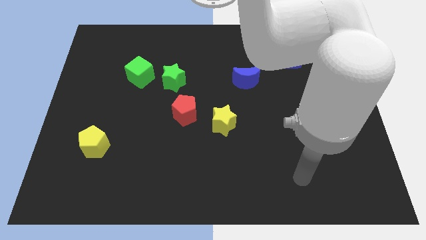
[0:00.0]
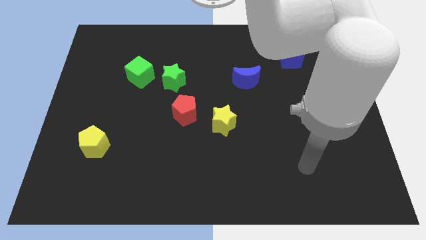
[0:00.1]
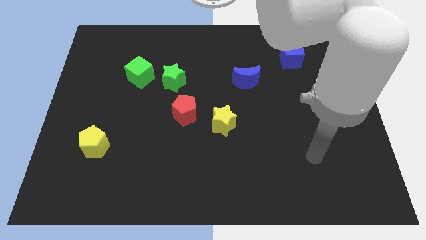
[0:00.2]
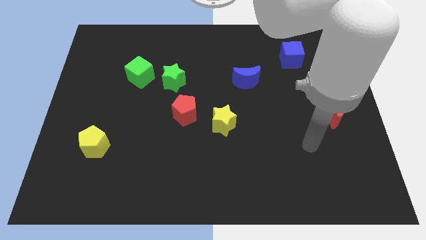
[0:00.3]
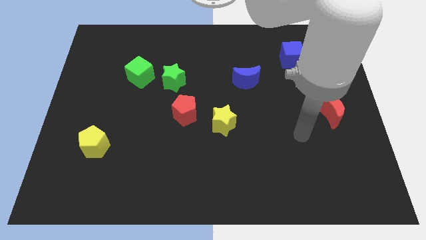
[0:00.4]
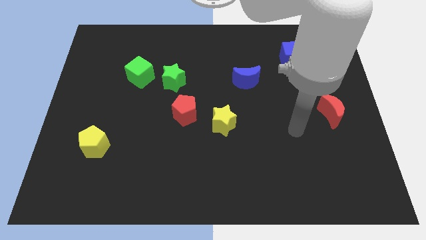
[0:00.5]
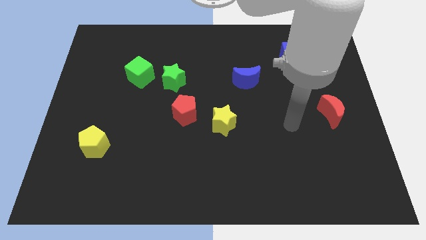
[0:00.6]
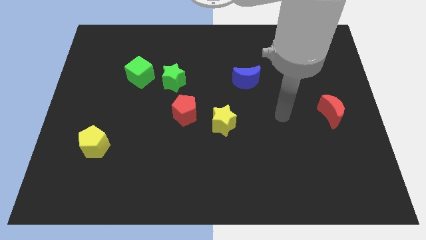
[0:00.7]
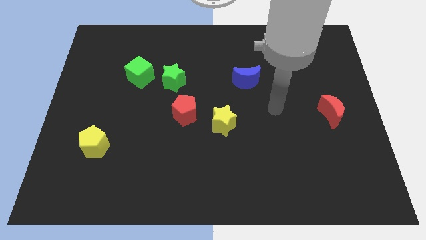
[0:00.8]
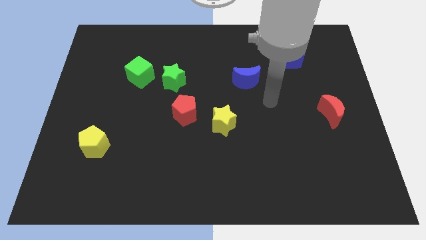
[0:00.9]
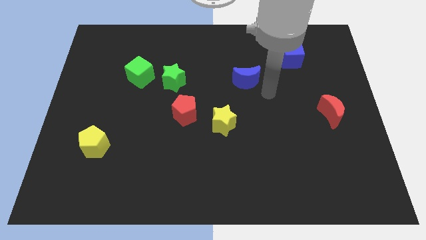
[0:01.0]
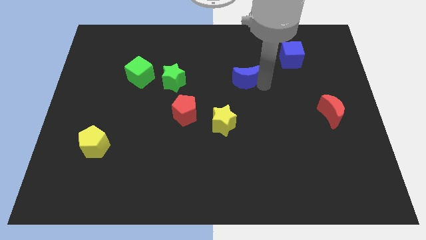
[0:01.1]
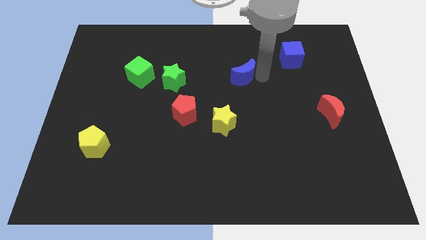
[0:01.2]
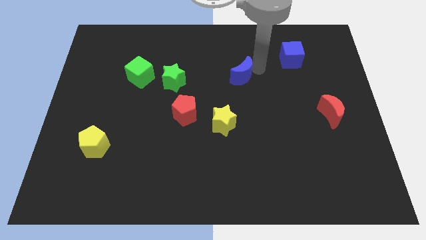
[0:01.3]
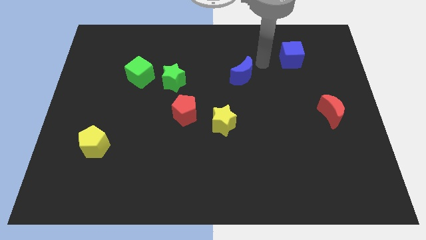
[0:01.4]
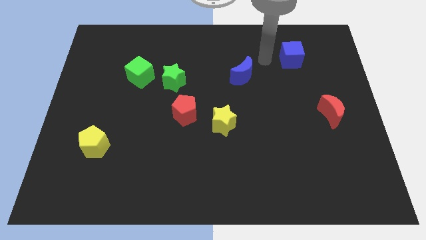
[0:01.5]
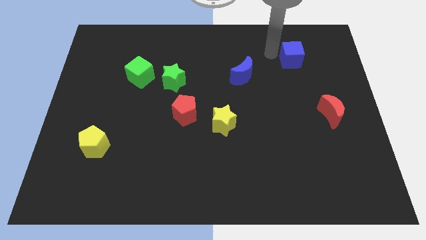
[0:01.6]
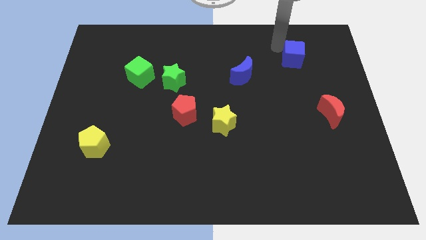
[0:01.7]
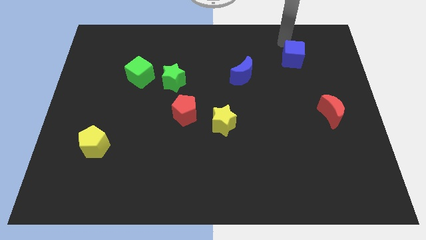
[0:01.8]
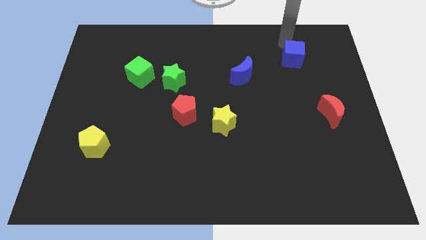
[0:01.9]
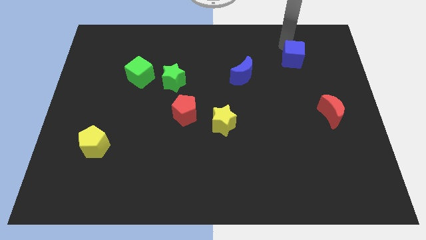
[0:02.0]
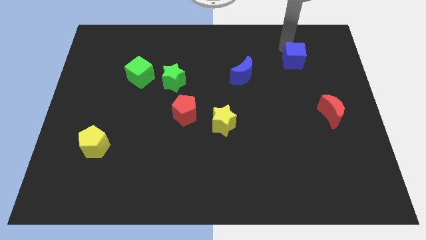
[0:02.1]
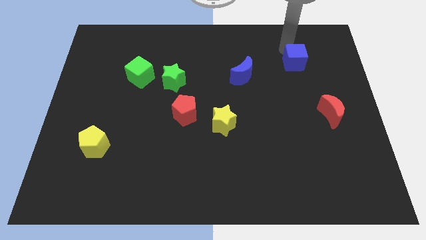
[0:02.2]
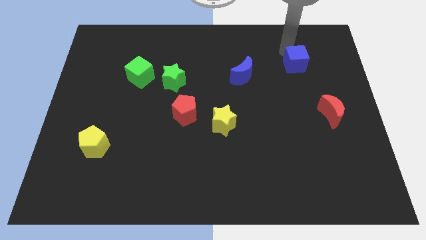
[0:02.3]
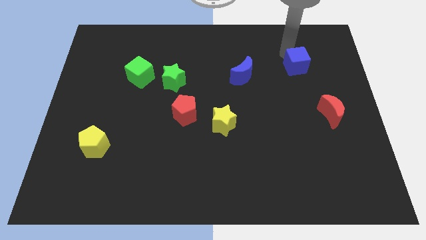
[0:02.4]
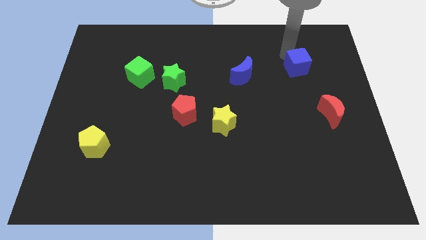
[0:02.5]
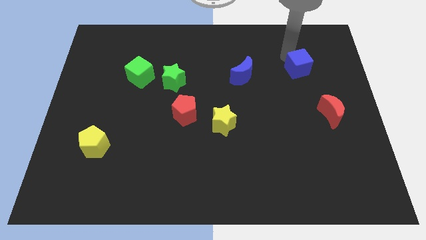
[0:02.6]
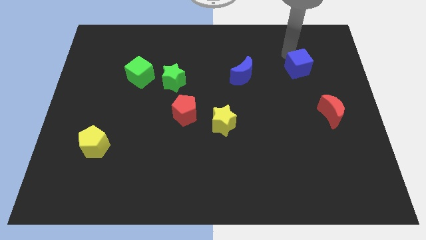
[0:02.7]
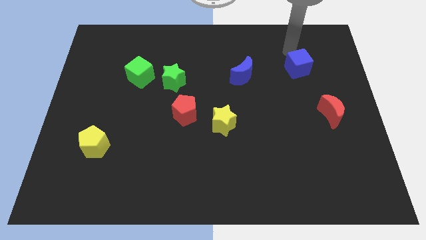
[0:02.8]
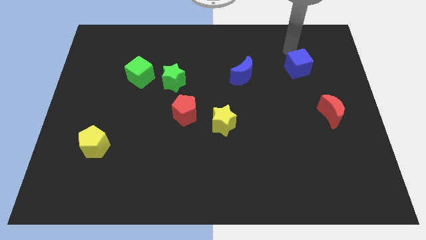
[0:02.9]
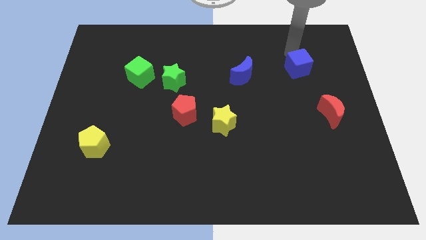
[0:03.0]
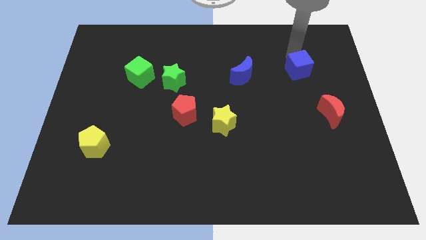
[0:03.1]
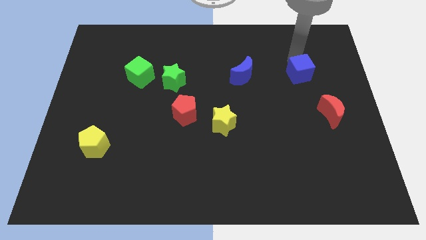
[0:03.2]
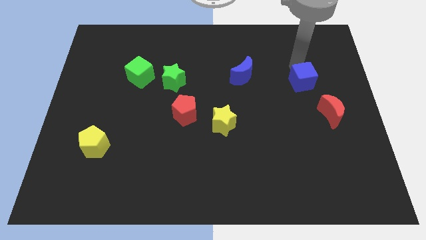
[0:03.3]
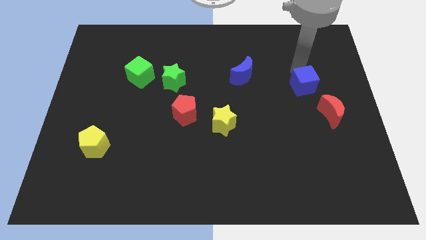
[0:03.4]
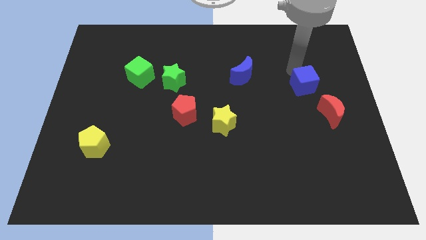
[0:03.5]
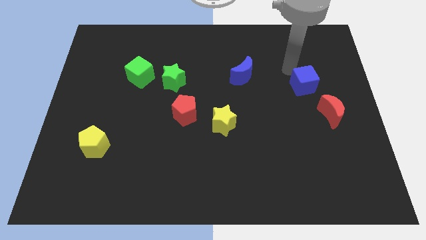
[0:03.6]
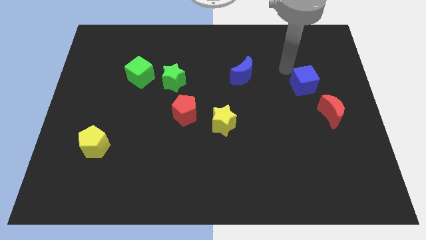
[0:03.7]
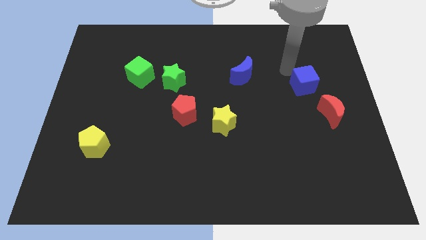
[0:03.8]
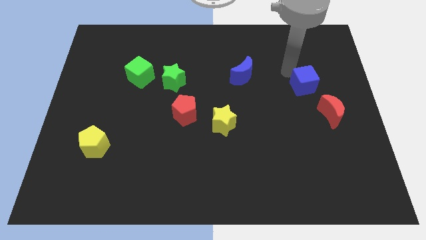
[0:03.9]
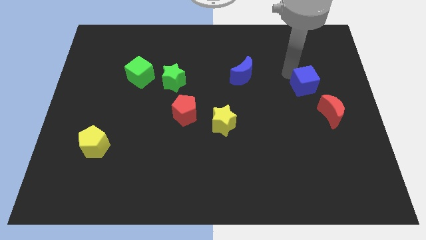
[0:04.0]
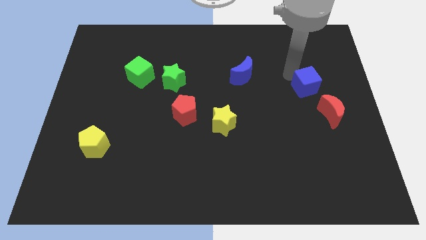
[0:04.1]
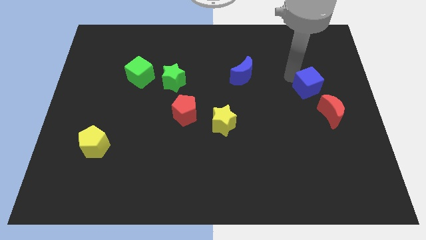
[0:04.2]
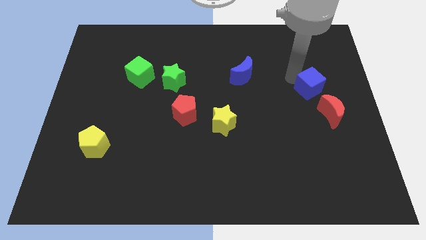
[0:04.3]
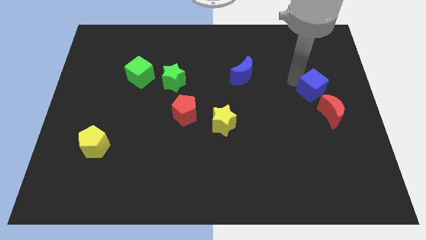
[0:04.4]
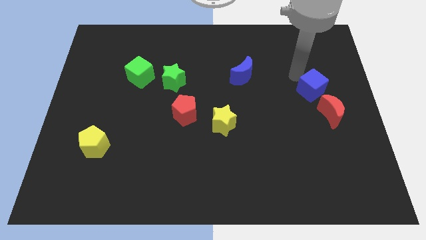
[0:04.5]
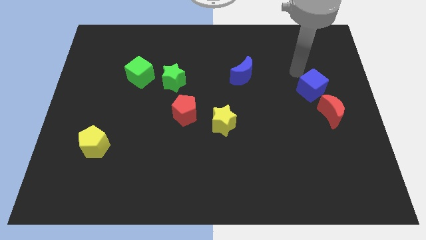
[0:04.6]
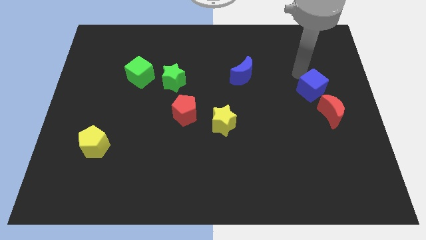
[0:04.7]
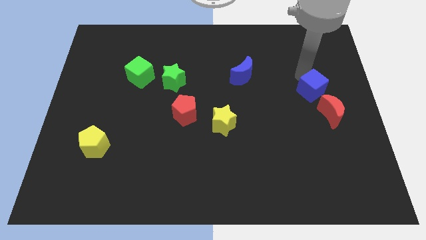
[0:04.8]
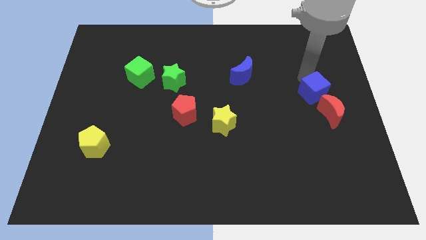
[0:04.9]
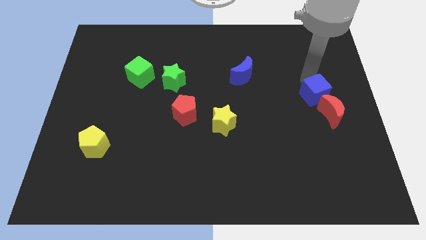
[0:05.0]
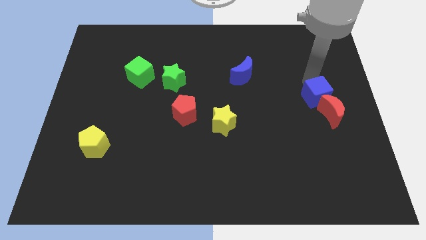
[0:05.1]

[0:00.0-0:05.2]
move the blue cube to the red moon

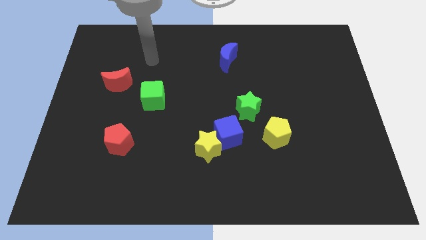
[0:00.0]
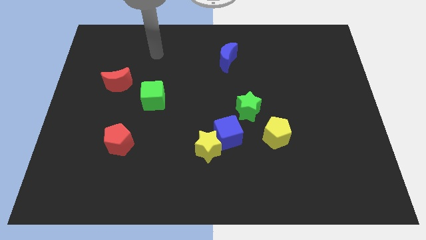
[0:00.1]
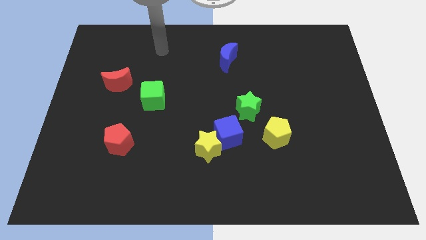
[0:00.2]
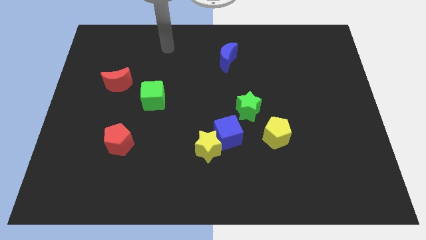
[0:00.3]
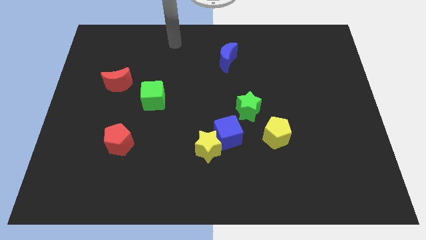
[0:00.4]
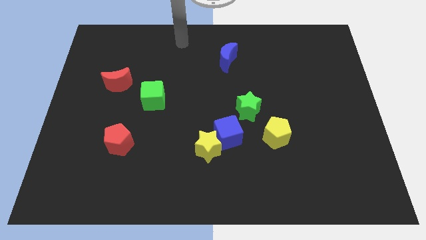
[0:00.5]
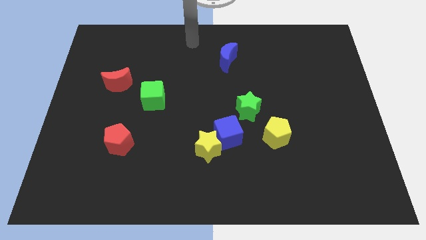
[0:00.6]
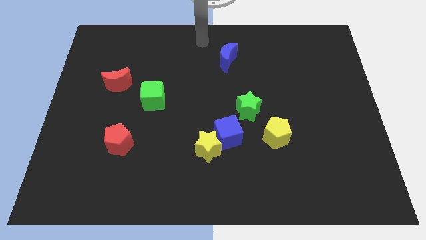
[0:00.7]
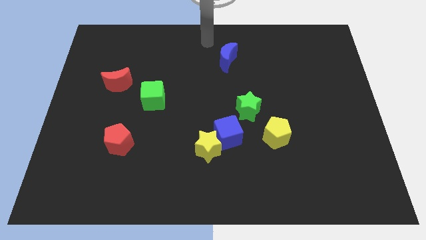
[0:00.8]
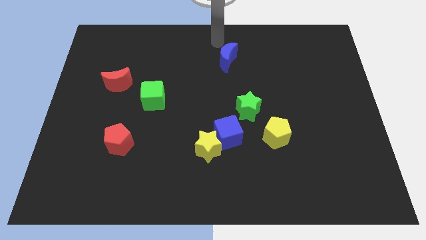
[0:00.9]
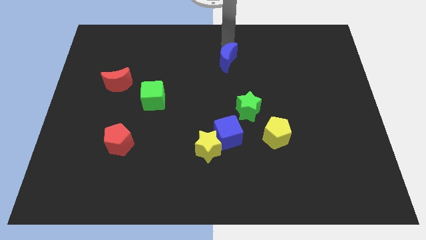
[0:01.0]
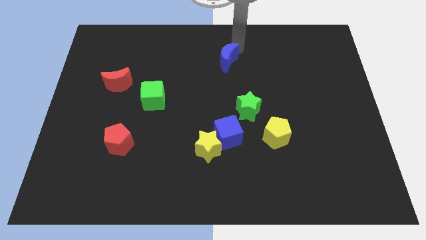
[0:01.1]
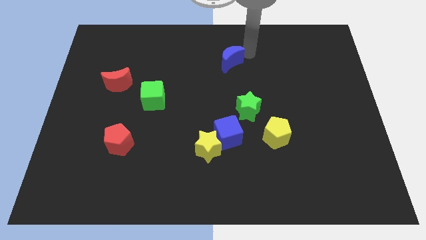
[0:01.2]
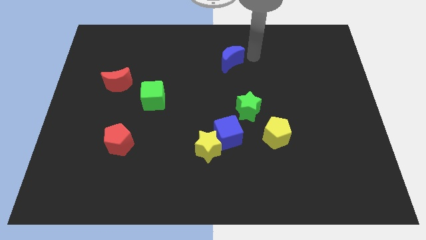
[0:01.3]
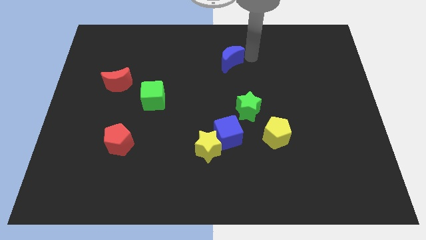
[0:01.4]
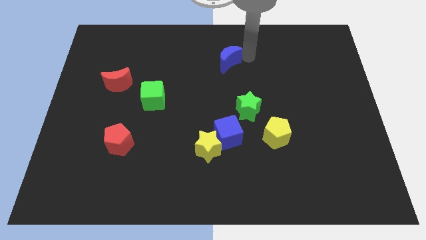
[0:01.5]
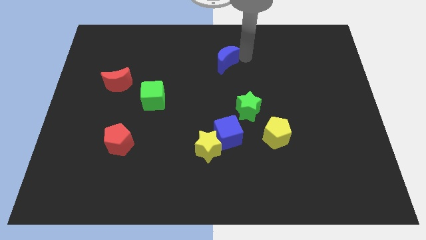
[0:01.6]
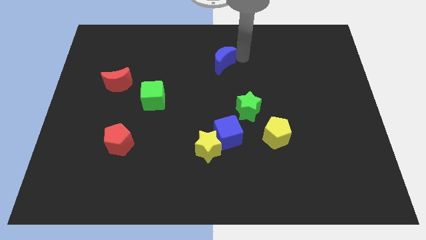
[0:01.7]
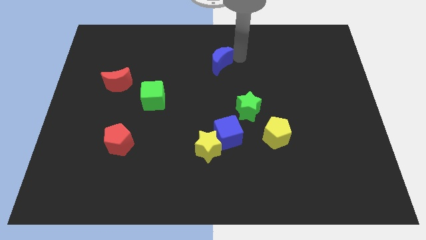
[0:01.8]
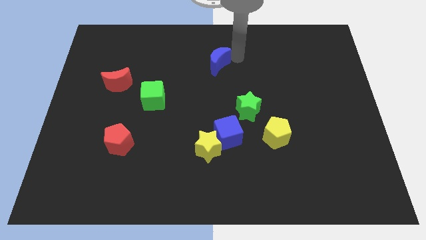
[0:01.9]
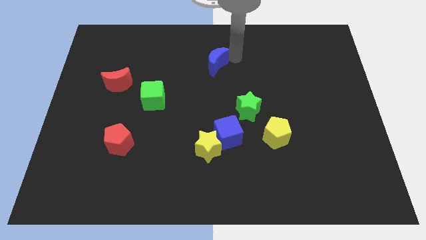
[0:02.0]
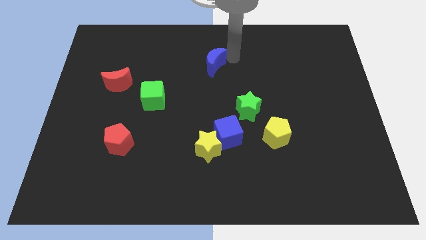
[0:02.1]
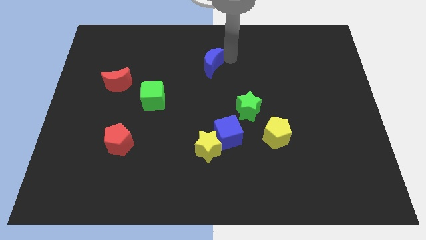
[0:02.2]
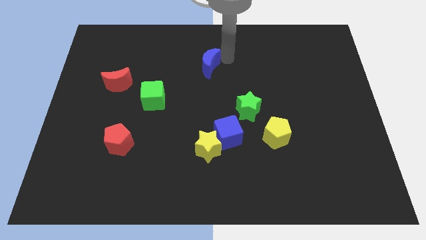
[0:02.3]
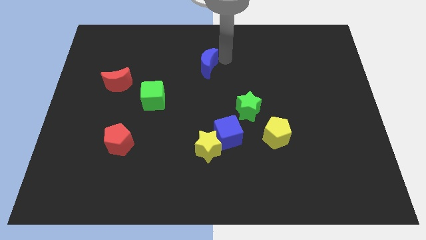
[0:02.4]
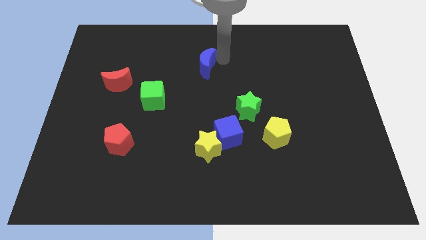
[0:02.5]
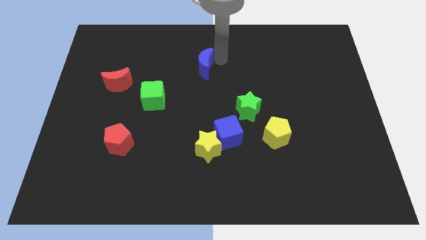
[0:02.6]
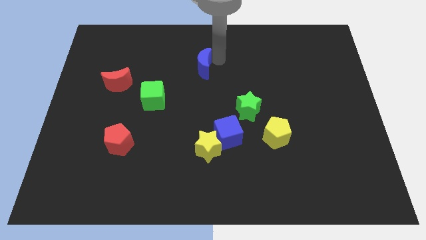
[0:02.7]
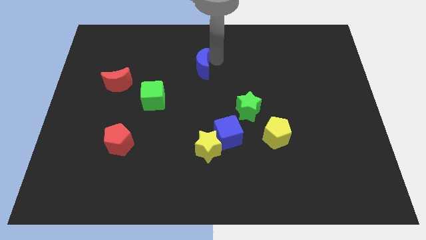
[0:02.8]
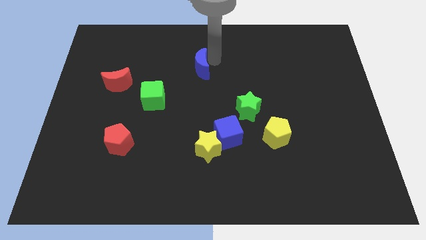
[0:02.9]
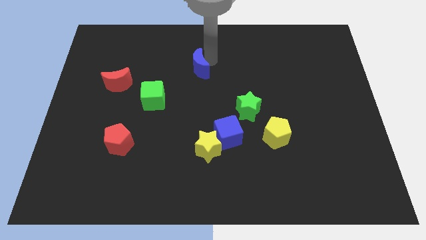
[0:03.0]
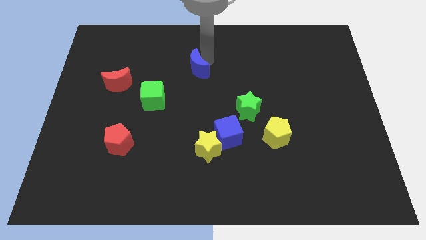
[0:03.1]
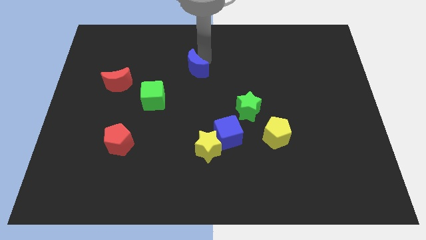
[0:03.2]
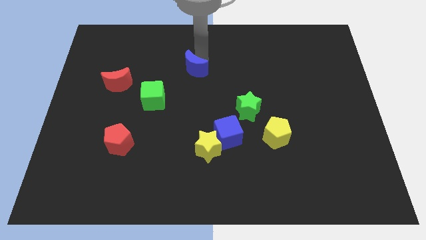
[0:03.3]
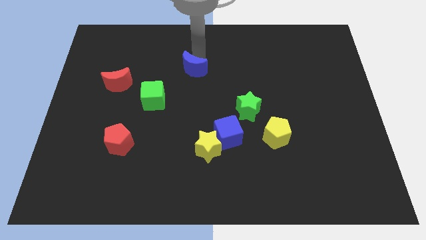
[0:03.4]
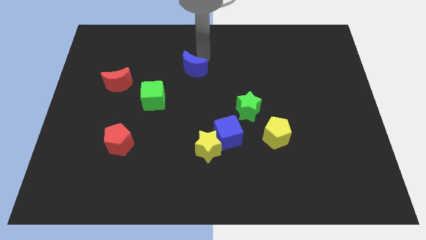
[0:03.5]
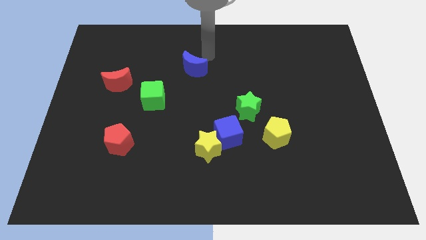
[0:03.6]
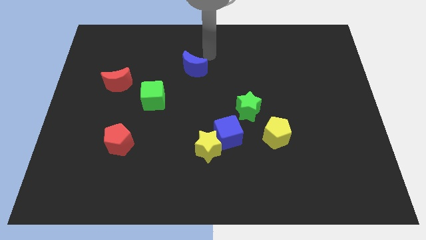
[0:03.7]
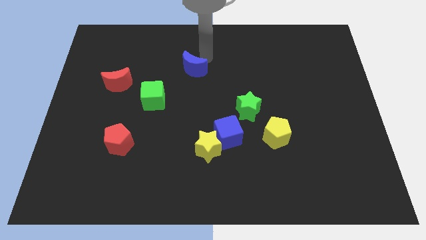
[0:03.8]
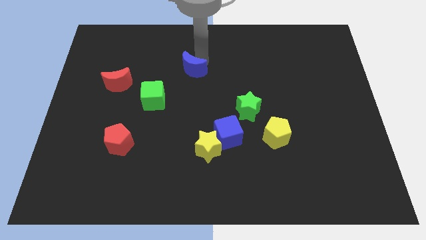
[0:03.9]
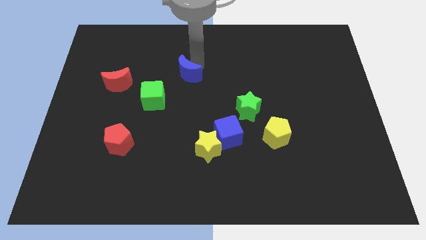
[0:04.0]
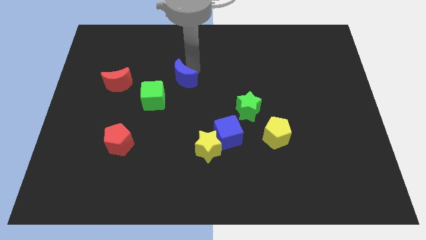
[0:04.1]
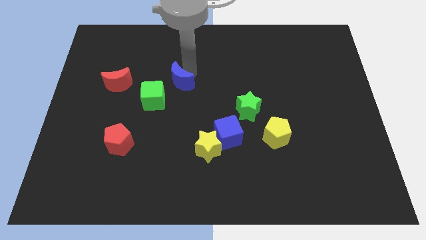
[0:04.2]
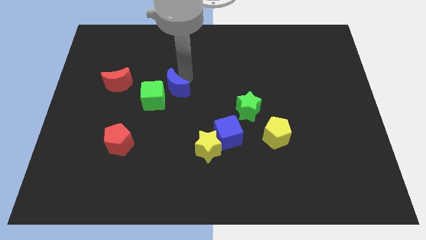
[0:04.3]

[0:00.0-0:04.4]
put the blue moon next to the green cube
